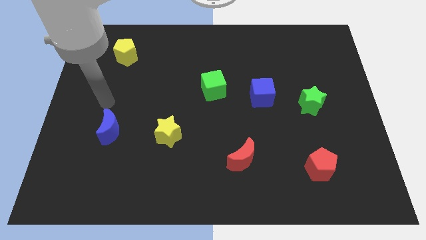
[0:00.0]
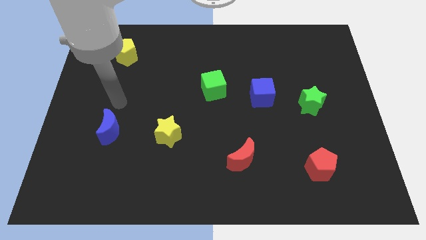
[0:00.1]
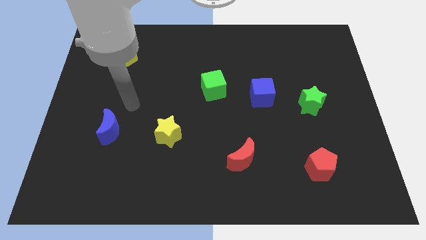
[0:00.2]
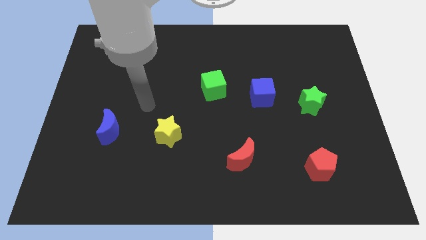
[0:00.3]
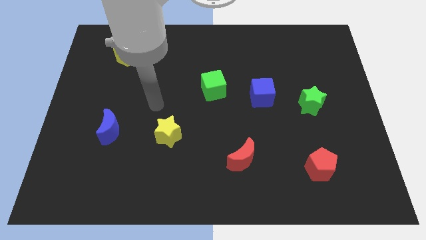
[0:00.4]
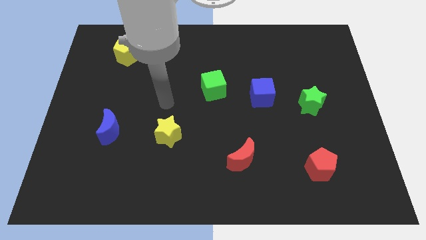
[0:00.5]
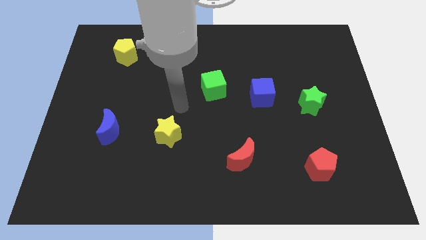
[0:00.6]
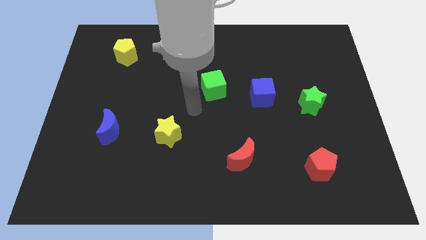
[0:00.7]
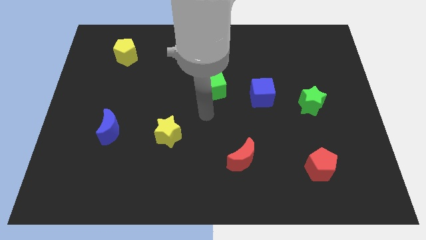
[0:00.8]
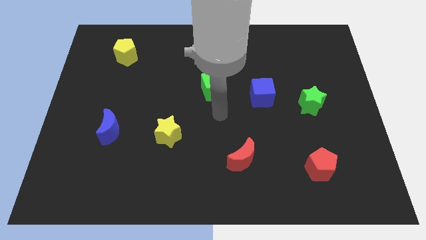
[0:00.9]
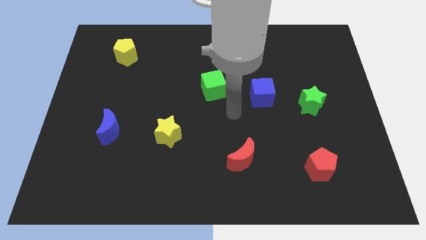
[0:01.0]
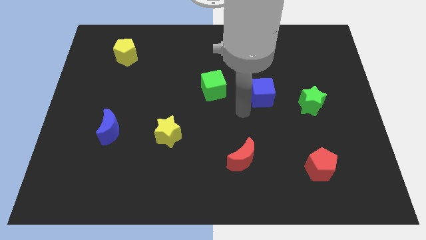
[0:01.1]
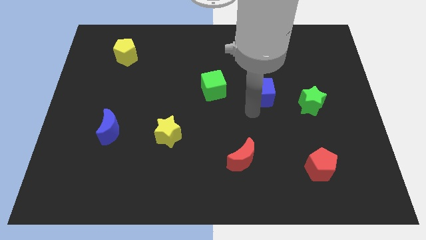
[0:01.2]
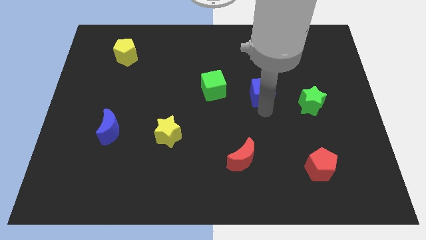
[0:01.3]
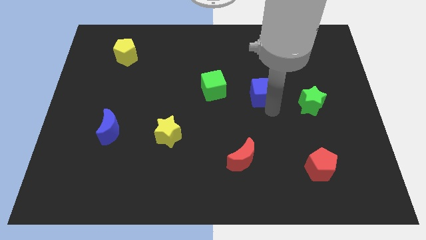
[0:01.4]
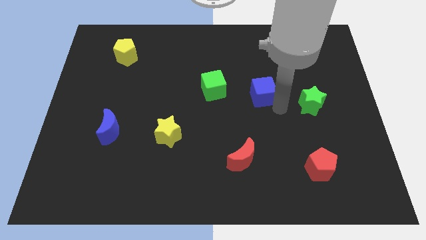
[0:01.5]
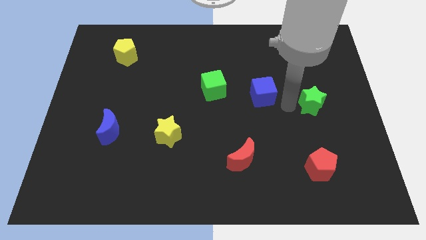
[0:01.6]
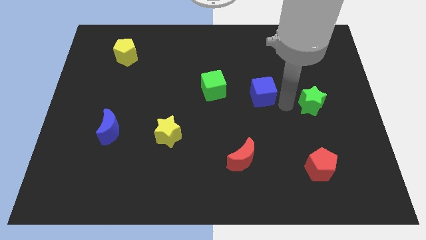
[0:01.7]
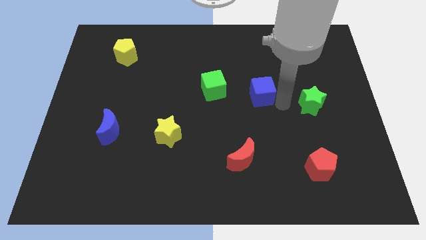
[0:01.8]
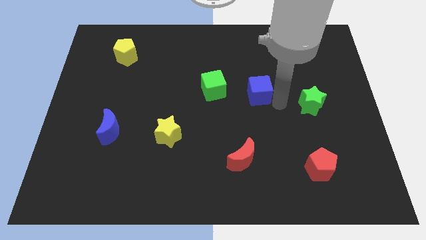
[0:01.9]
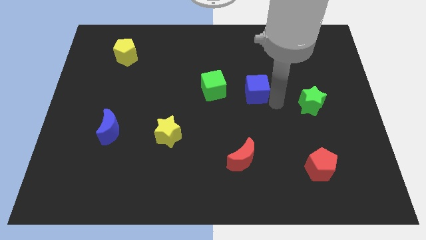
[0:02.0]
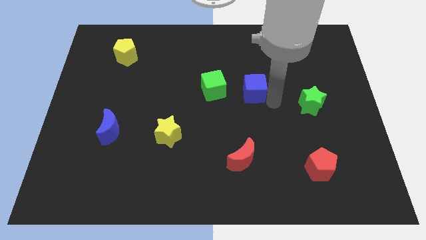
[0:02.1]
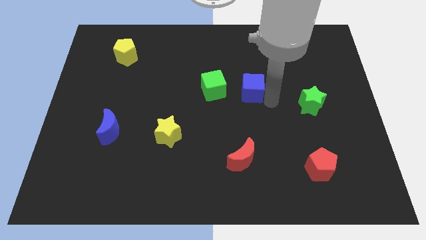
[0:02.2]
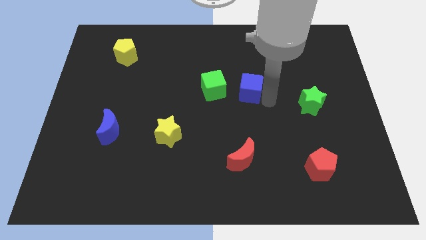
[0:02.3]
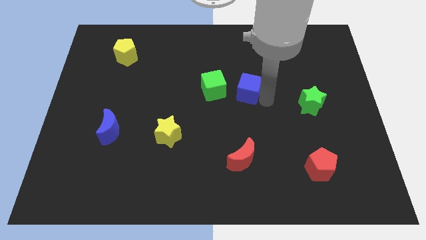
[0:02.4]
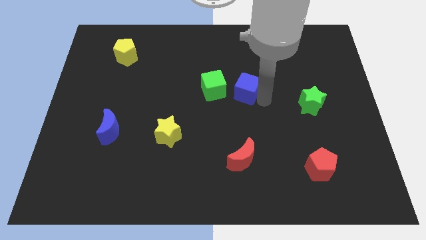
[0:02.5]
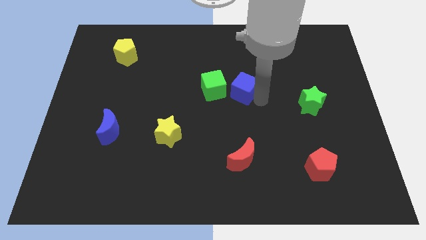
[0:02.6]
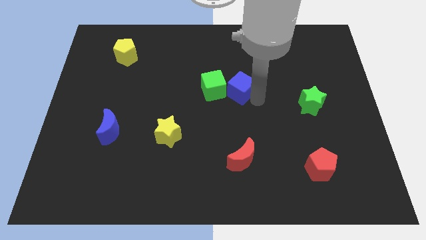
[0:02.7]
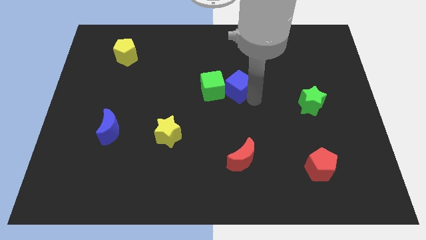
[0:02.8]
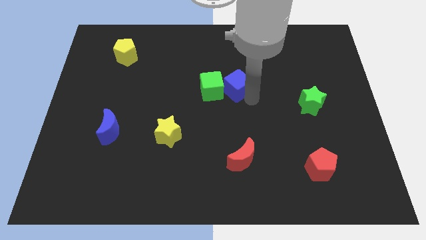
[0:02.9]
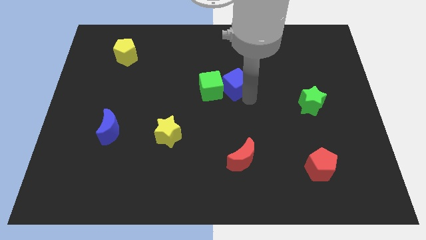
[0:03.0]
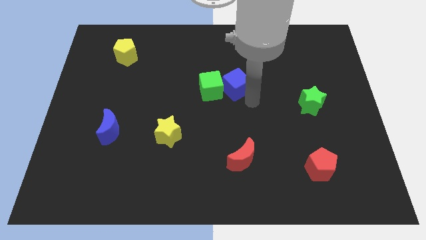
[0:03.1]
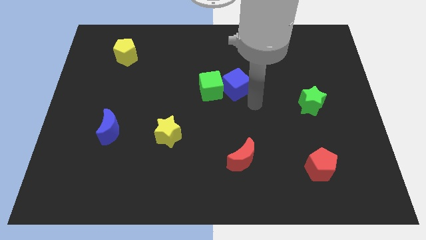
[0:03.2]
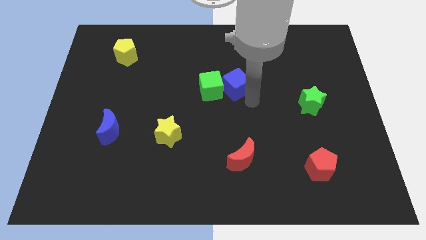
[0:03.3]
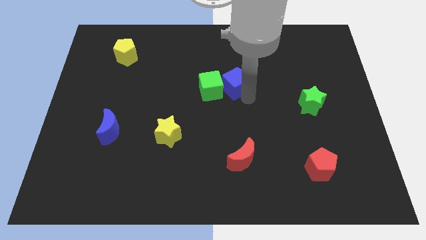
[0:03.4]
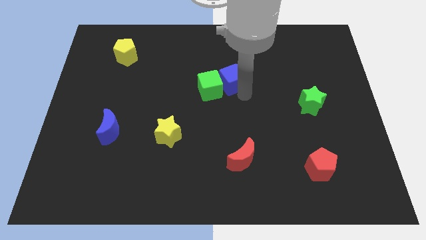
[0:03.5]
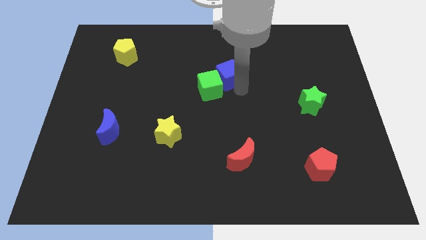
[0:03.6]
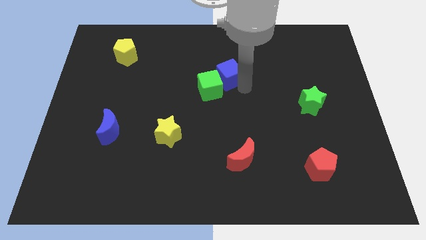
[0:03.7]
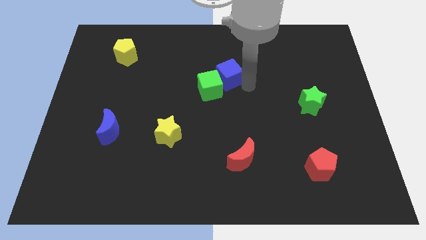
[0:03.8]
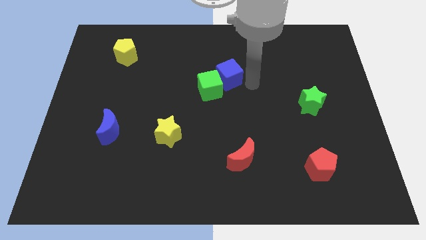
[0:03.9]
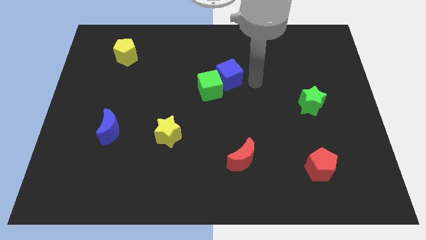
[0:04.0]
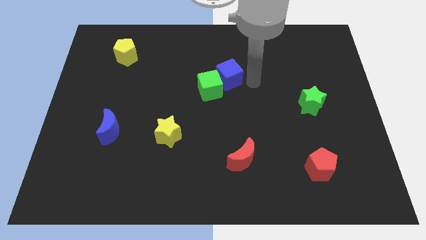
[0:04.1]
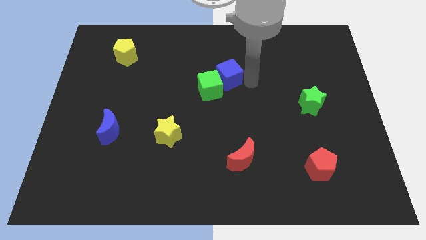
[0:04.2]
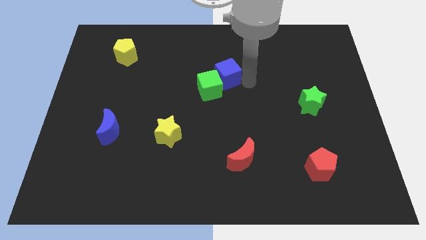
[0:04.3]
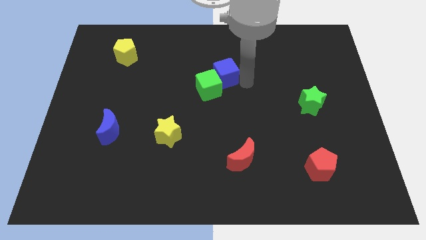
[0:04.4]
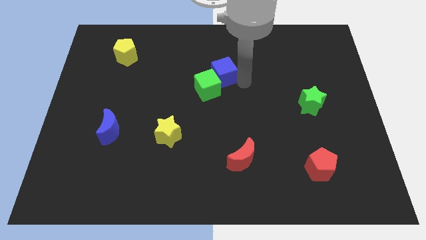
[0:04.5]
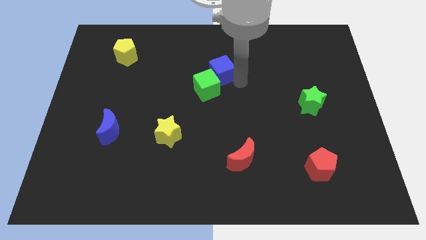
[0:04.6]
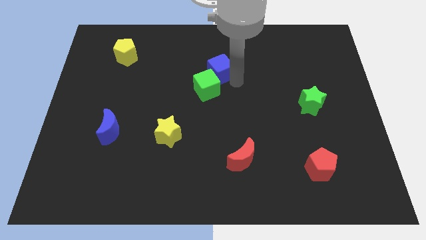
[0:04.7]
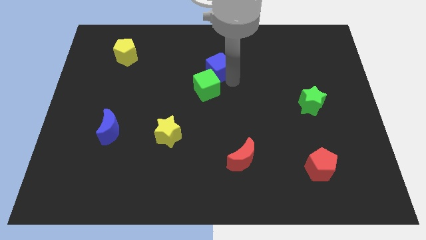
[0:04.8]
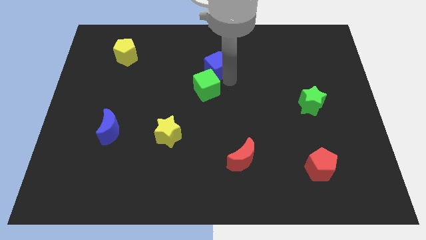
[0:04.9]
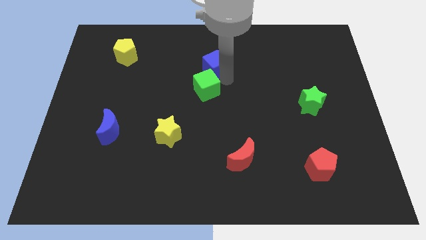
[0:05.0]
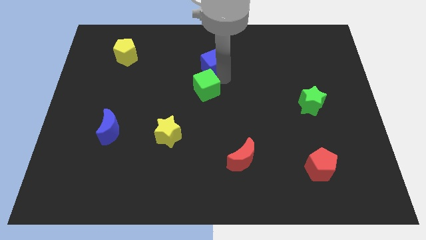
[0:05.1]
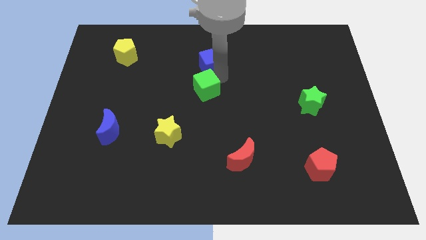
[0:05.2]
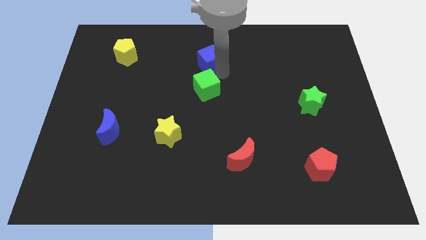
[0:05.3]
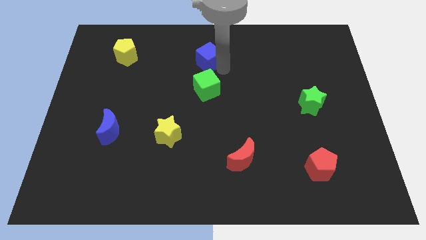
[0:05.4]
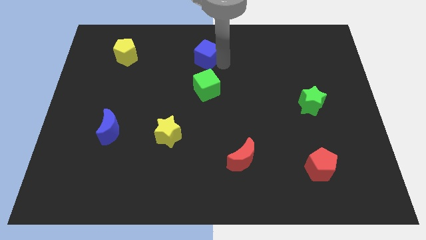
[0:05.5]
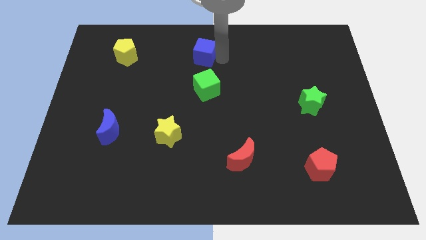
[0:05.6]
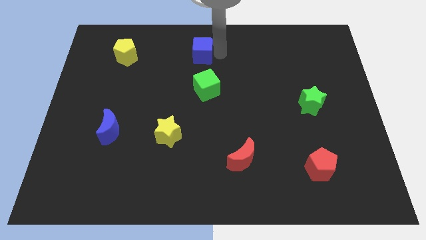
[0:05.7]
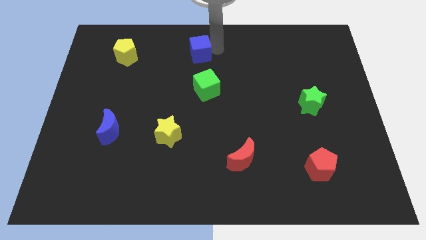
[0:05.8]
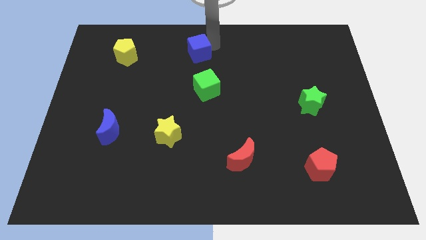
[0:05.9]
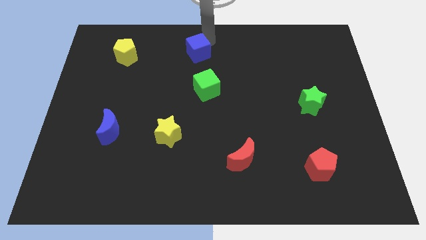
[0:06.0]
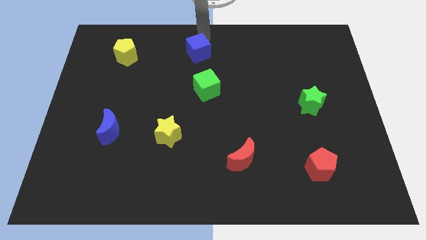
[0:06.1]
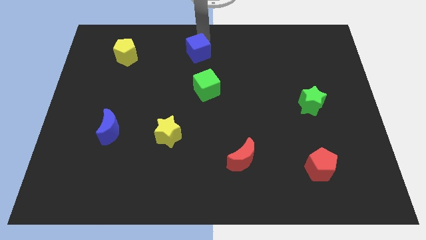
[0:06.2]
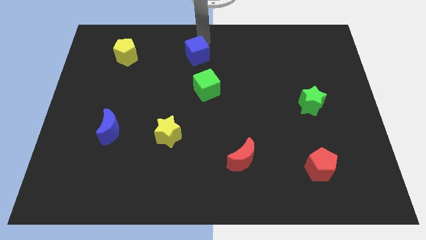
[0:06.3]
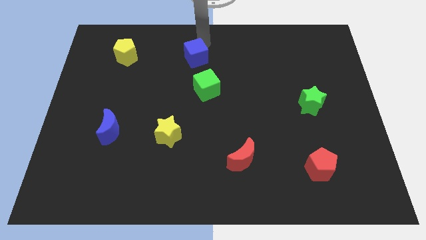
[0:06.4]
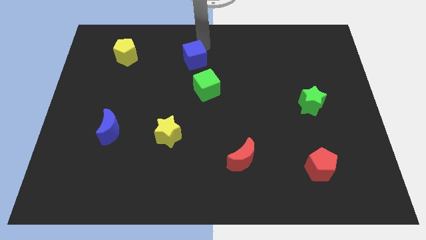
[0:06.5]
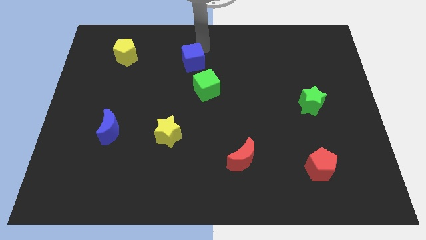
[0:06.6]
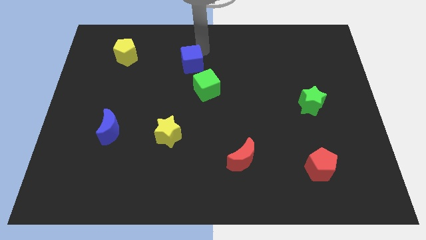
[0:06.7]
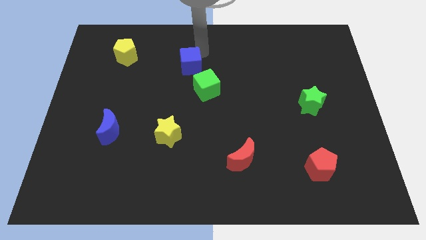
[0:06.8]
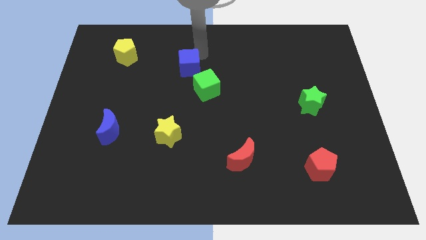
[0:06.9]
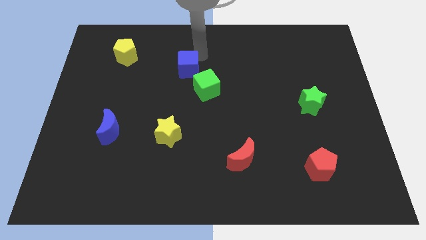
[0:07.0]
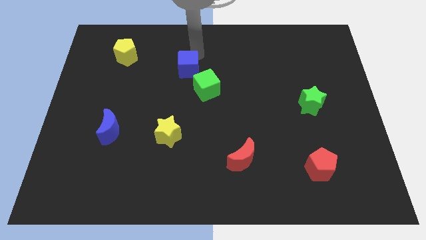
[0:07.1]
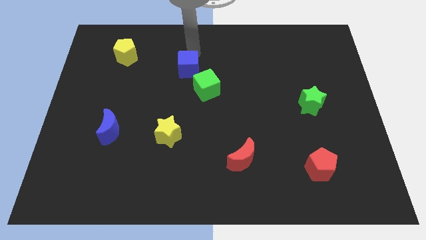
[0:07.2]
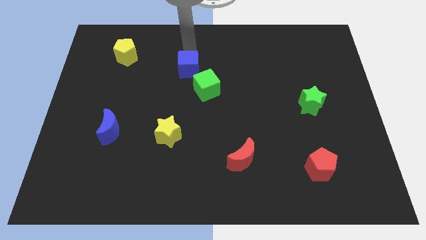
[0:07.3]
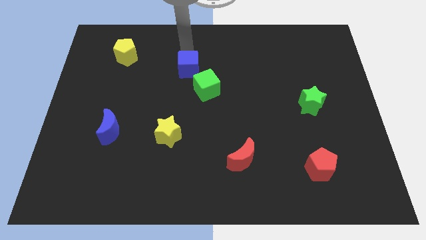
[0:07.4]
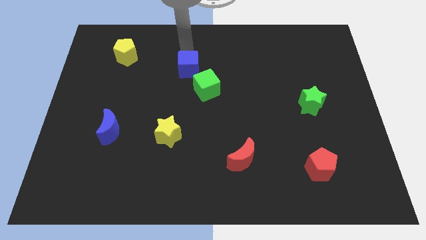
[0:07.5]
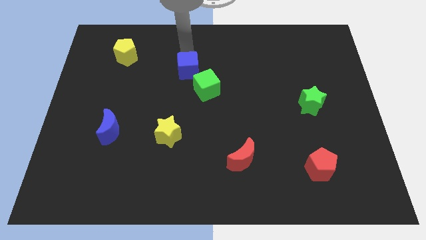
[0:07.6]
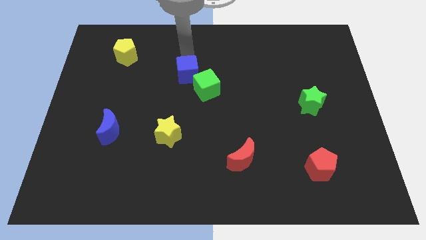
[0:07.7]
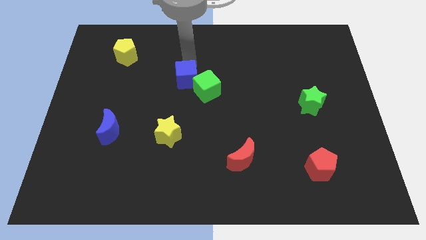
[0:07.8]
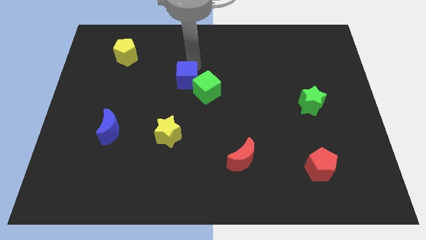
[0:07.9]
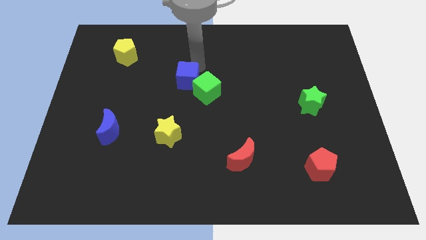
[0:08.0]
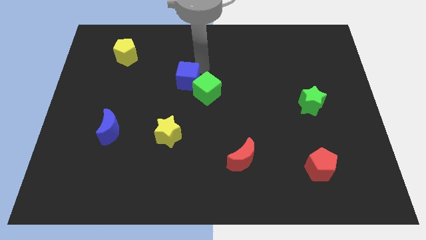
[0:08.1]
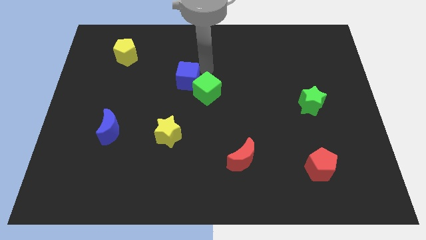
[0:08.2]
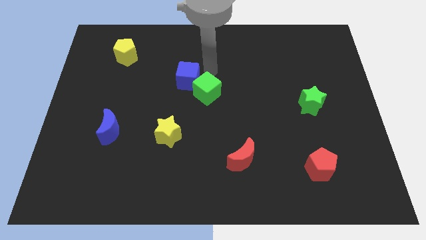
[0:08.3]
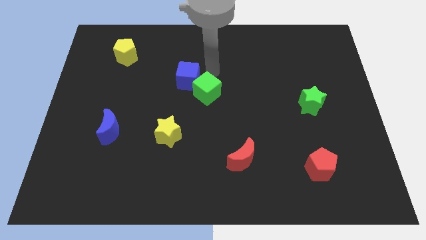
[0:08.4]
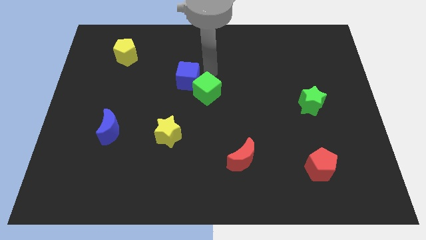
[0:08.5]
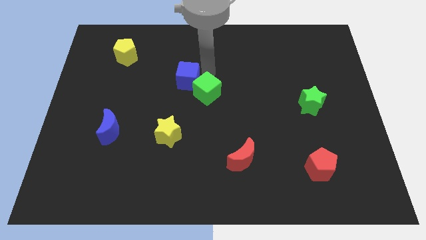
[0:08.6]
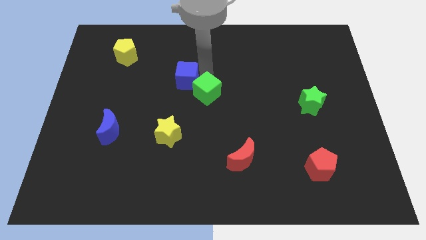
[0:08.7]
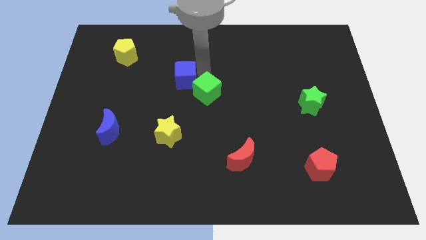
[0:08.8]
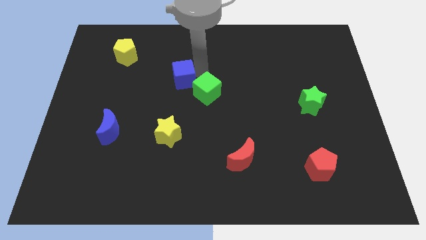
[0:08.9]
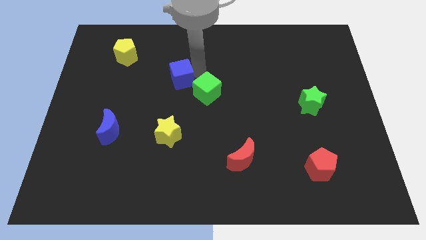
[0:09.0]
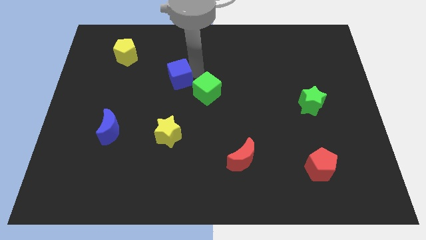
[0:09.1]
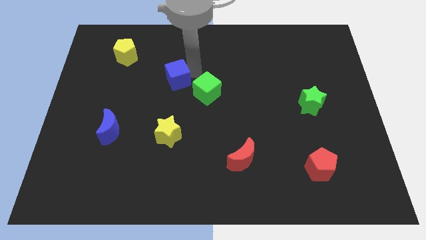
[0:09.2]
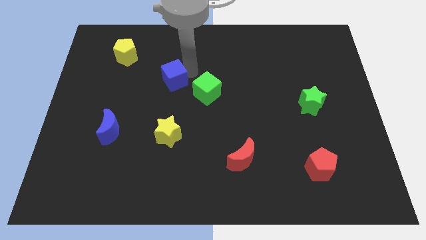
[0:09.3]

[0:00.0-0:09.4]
slide the blue cube left
